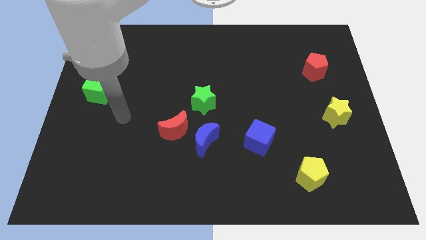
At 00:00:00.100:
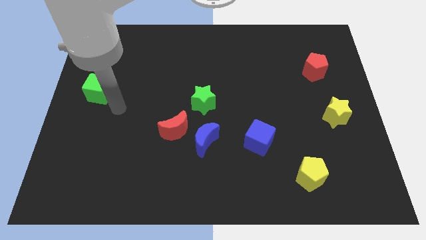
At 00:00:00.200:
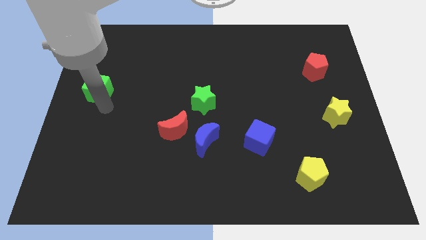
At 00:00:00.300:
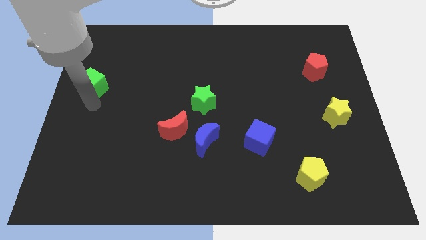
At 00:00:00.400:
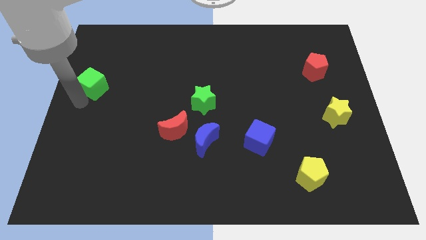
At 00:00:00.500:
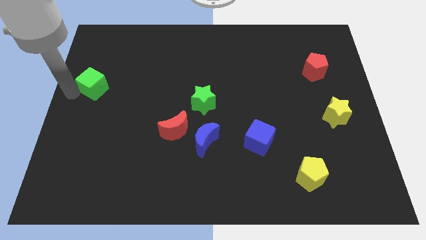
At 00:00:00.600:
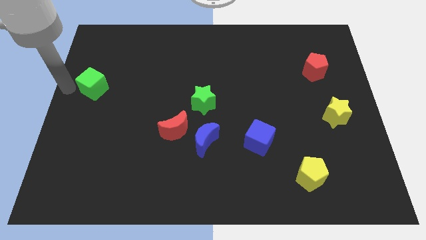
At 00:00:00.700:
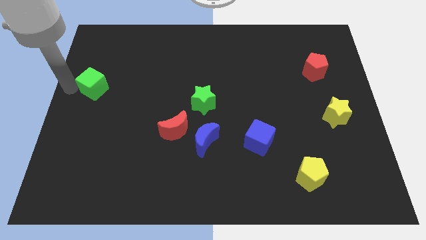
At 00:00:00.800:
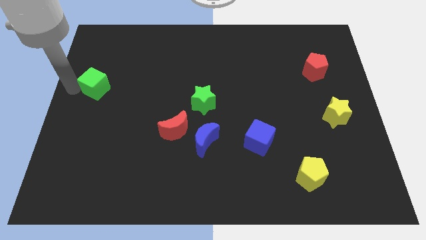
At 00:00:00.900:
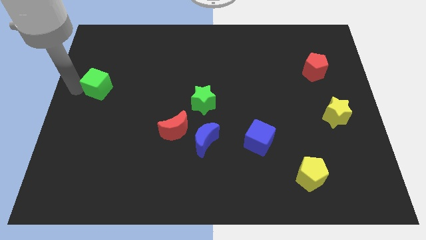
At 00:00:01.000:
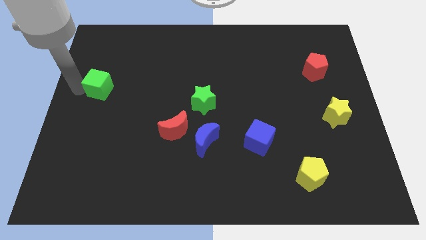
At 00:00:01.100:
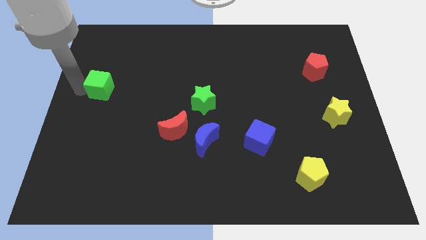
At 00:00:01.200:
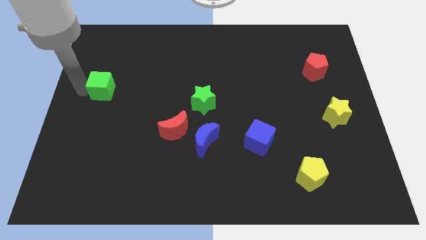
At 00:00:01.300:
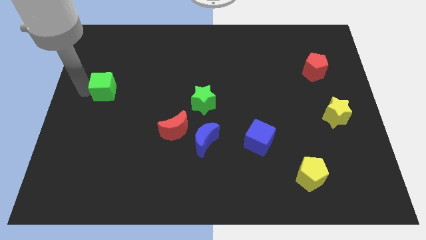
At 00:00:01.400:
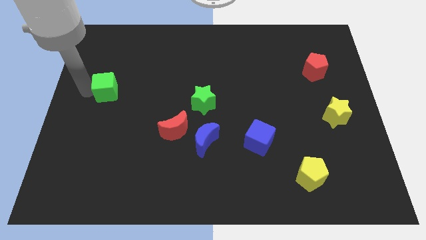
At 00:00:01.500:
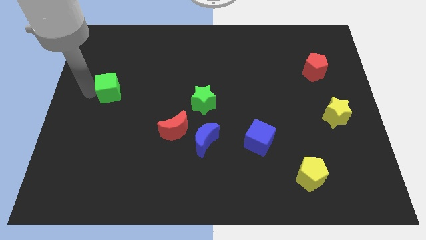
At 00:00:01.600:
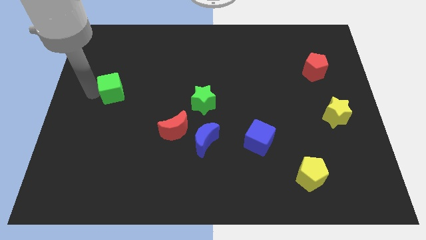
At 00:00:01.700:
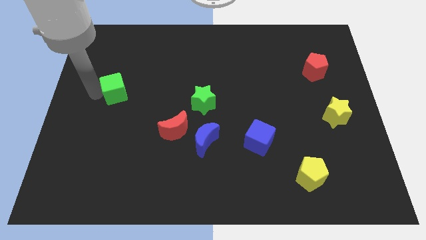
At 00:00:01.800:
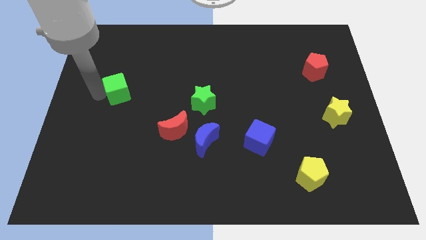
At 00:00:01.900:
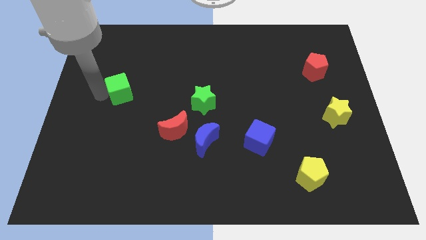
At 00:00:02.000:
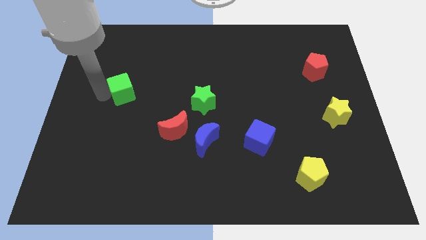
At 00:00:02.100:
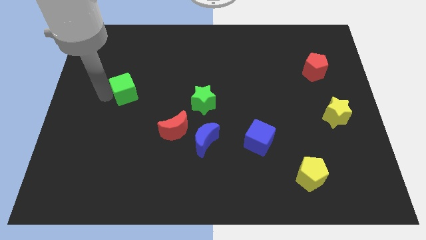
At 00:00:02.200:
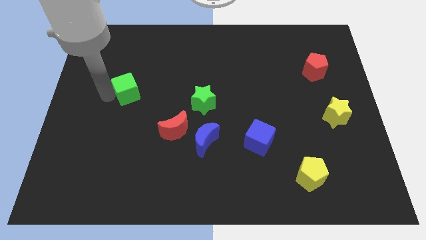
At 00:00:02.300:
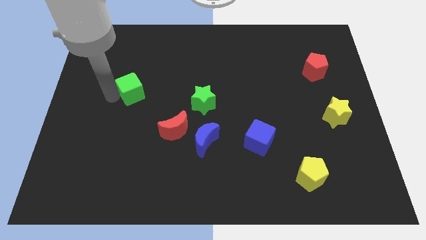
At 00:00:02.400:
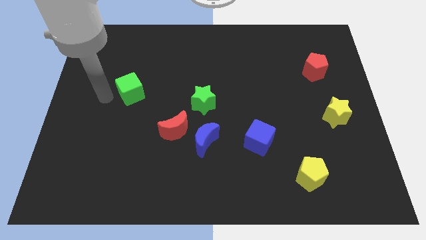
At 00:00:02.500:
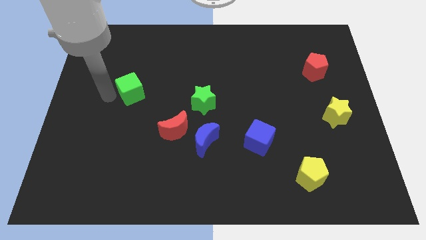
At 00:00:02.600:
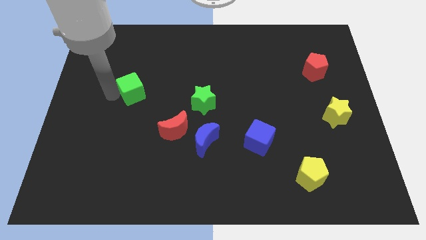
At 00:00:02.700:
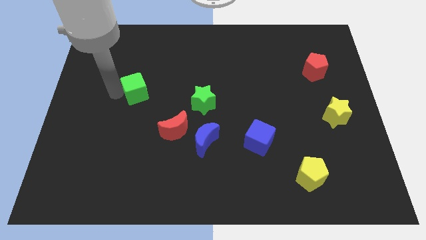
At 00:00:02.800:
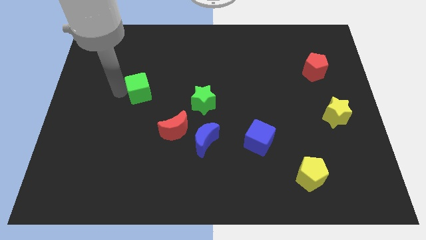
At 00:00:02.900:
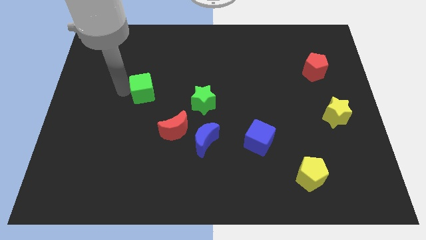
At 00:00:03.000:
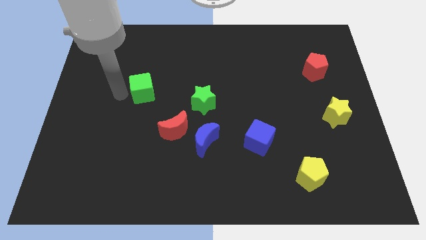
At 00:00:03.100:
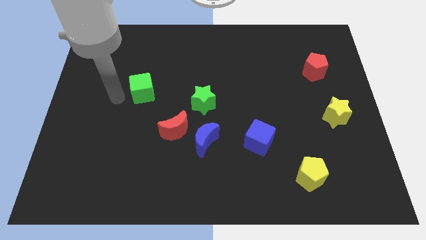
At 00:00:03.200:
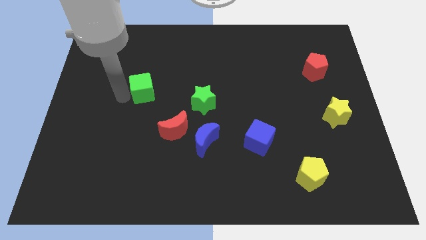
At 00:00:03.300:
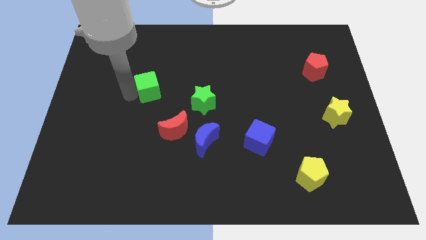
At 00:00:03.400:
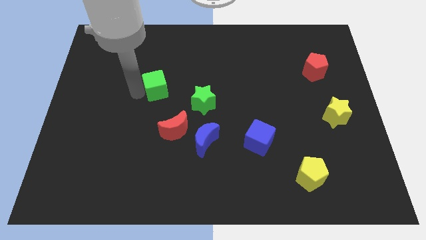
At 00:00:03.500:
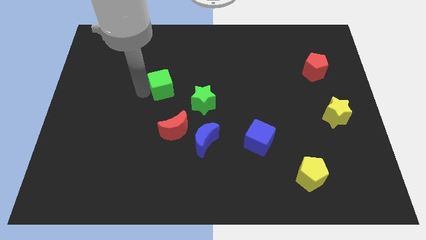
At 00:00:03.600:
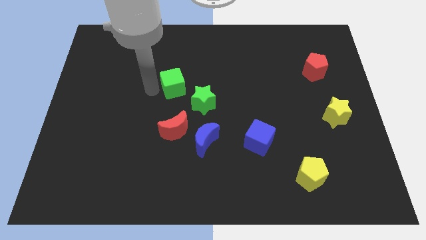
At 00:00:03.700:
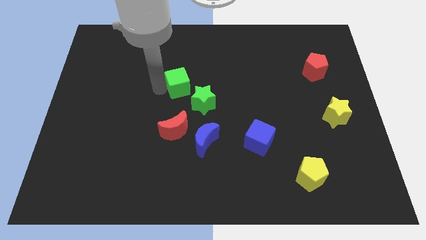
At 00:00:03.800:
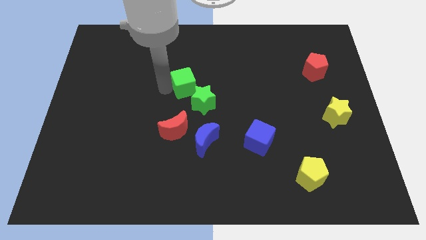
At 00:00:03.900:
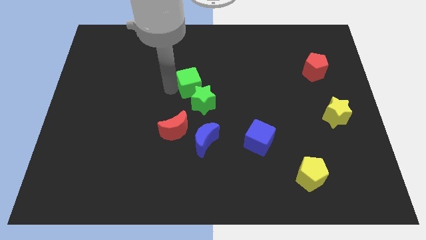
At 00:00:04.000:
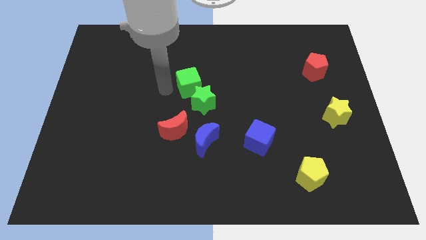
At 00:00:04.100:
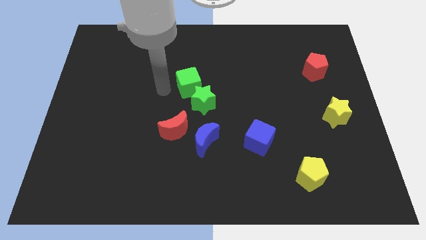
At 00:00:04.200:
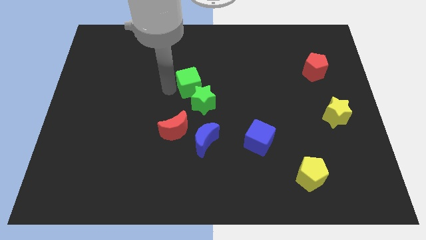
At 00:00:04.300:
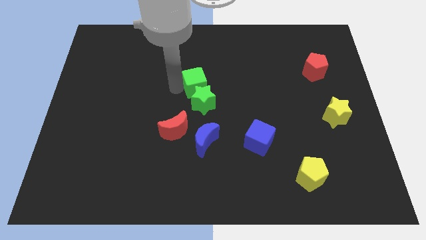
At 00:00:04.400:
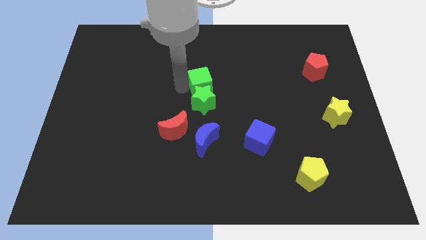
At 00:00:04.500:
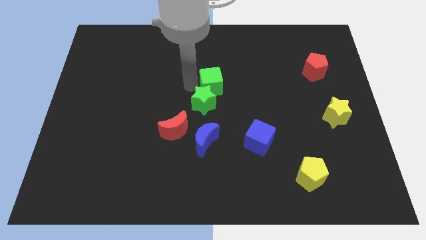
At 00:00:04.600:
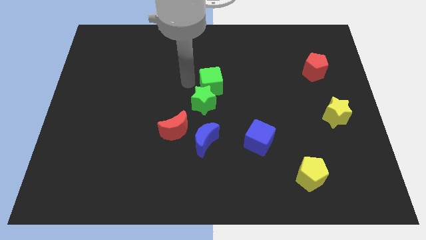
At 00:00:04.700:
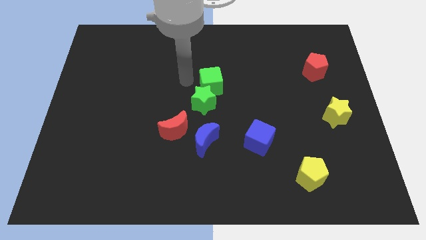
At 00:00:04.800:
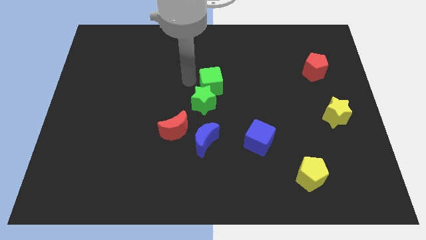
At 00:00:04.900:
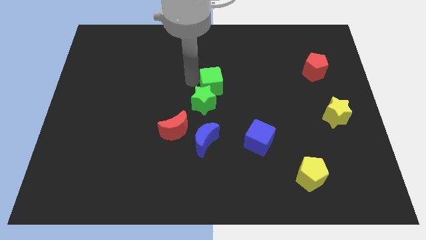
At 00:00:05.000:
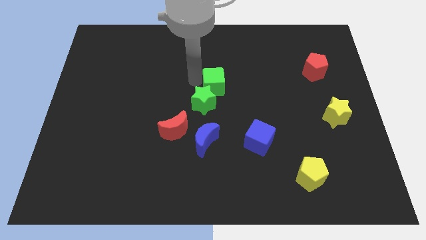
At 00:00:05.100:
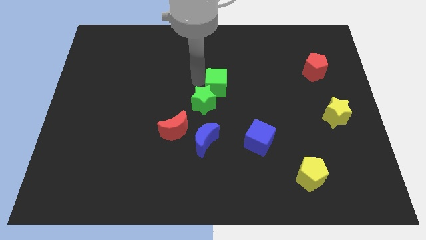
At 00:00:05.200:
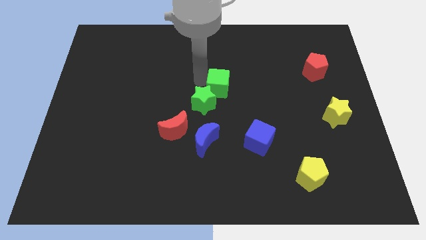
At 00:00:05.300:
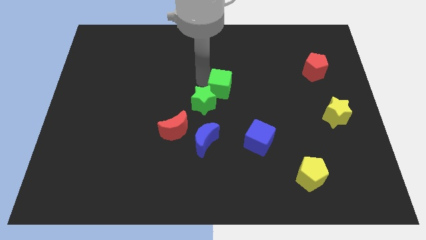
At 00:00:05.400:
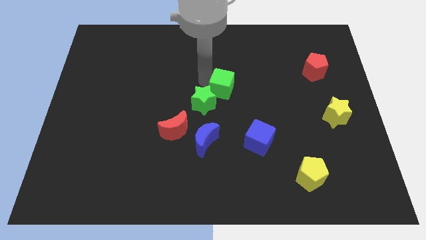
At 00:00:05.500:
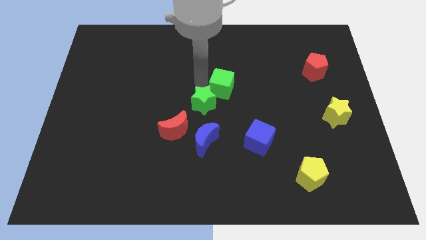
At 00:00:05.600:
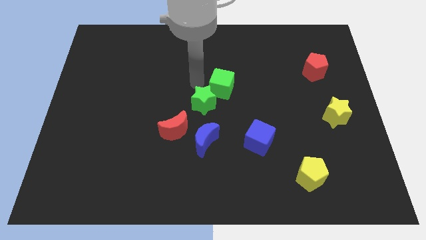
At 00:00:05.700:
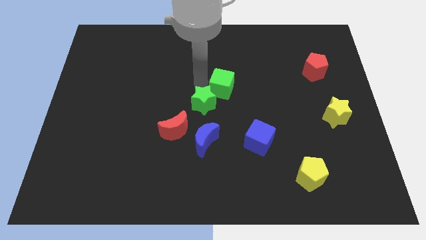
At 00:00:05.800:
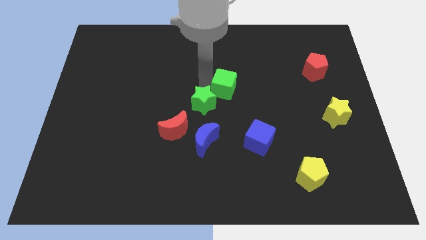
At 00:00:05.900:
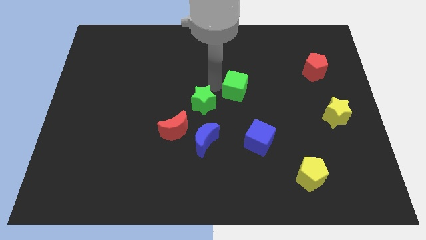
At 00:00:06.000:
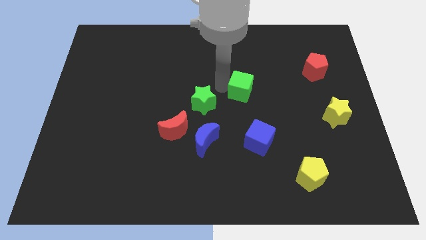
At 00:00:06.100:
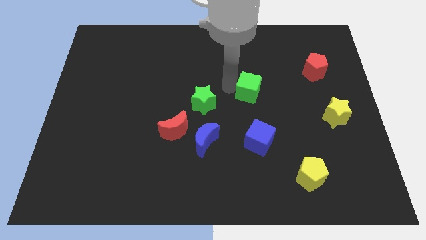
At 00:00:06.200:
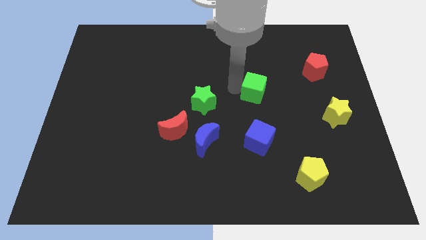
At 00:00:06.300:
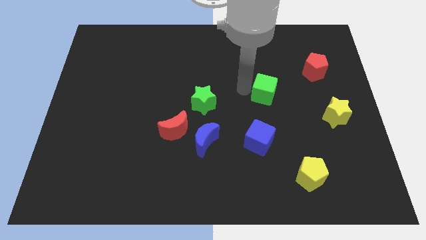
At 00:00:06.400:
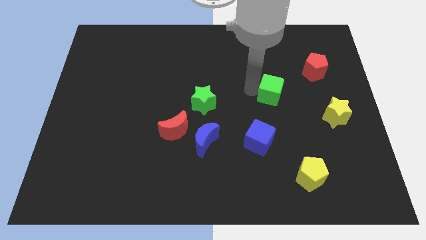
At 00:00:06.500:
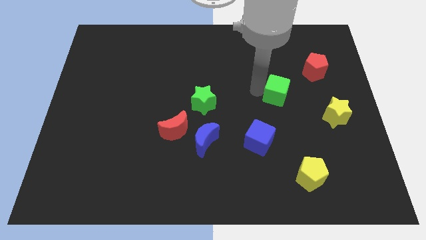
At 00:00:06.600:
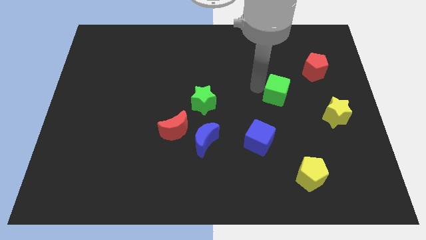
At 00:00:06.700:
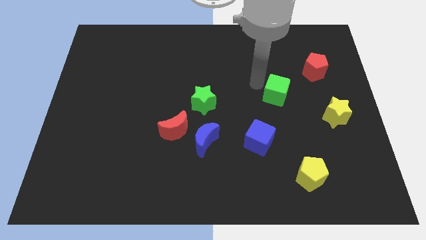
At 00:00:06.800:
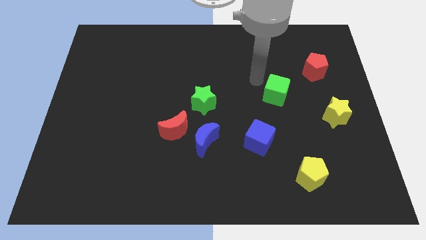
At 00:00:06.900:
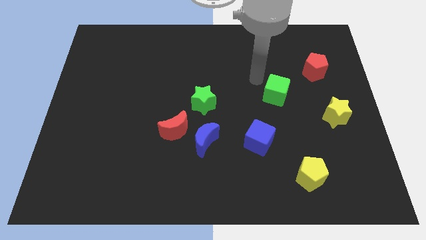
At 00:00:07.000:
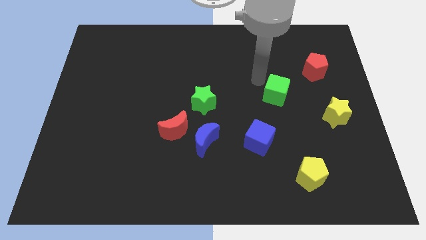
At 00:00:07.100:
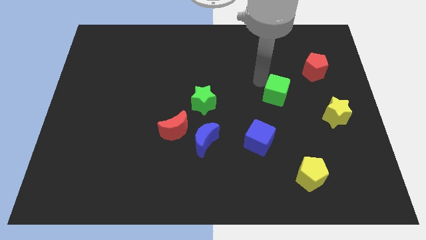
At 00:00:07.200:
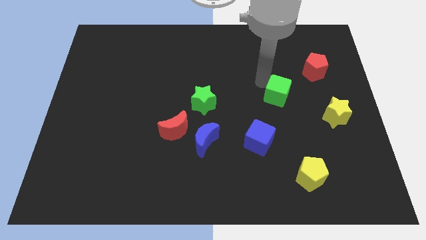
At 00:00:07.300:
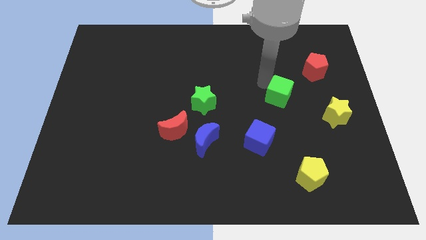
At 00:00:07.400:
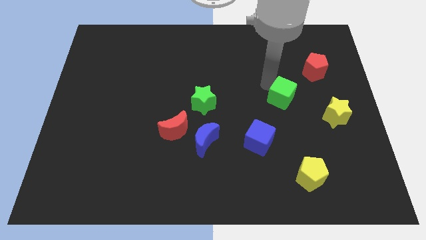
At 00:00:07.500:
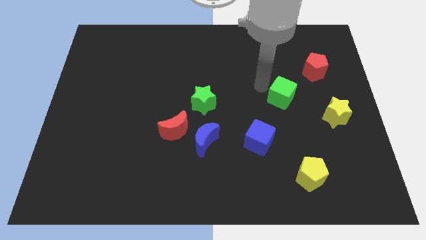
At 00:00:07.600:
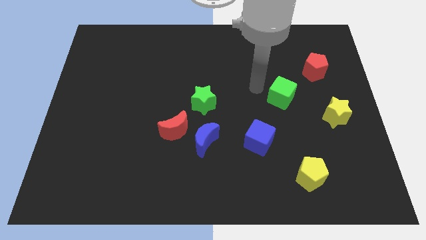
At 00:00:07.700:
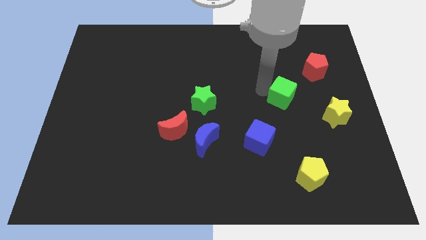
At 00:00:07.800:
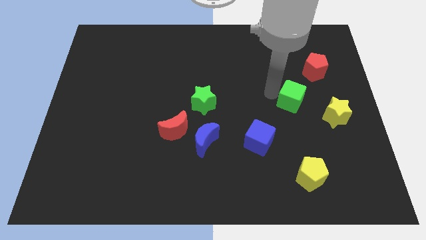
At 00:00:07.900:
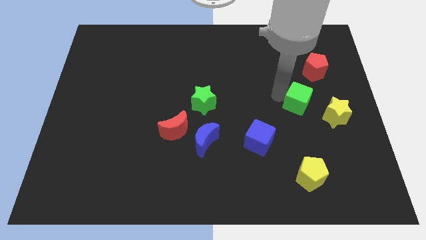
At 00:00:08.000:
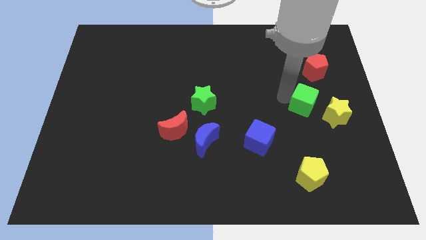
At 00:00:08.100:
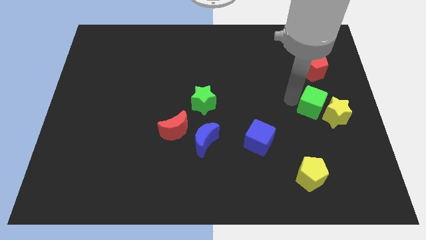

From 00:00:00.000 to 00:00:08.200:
put the green cube next to the yellow star
